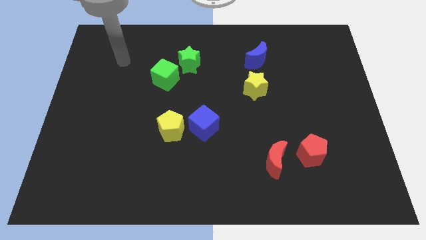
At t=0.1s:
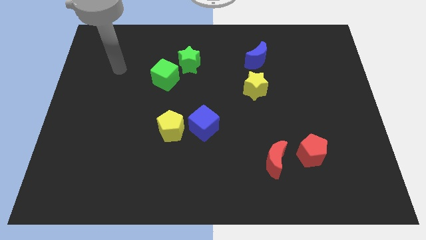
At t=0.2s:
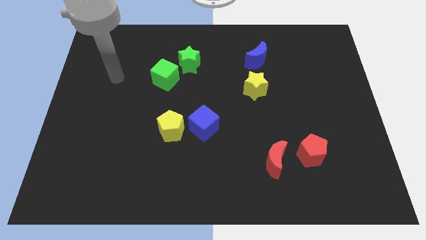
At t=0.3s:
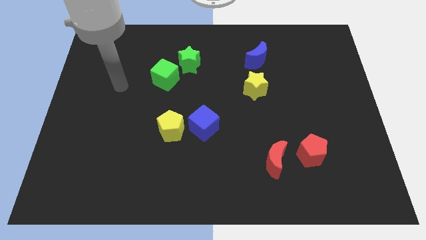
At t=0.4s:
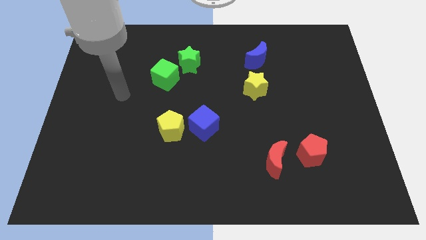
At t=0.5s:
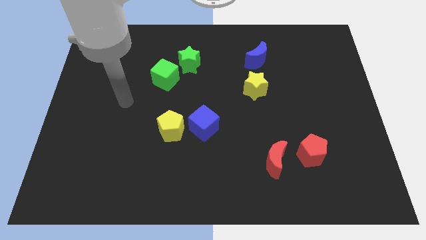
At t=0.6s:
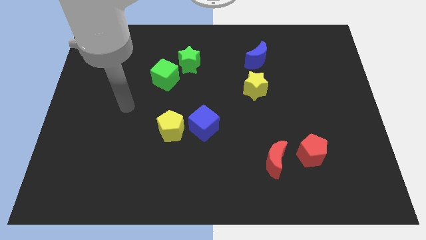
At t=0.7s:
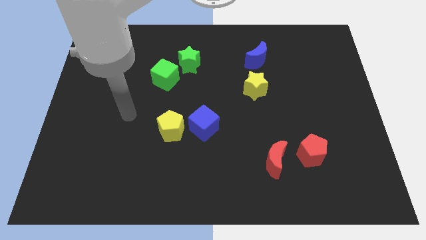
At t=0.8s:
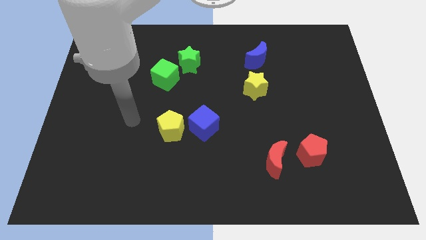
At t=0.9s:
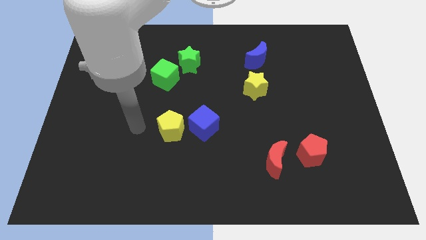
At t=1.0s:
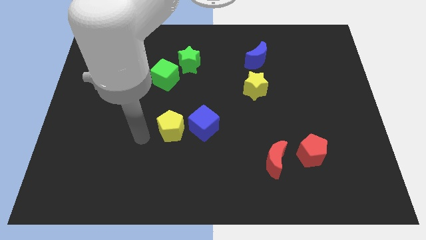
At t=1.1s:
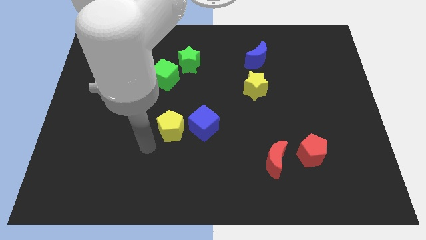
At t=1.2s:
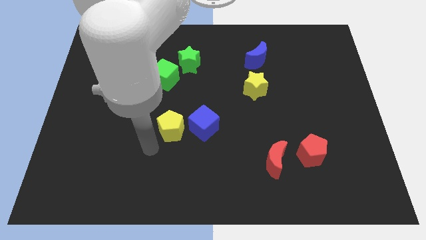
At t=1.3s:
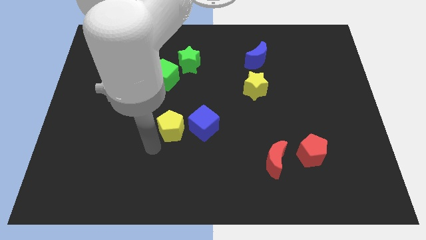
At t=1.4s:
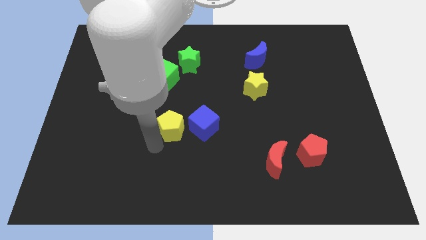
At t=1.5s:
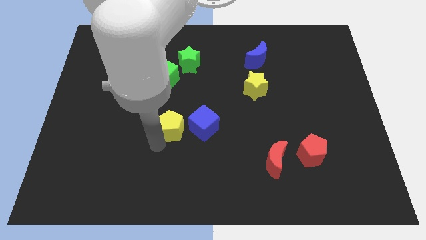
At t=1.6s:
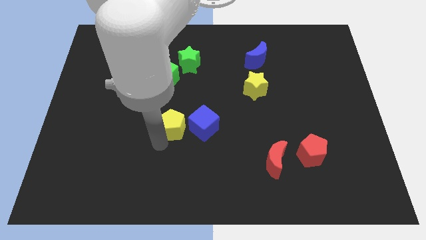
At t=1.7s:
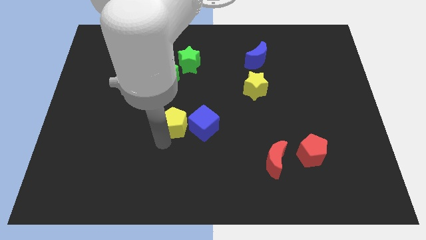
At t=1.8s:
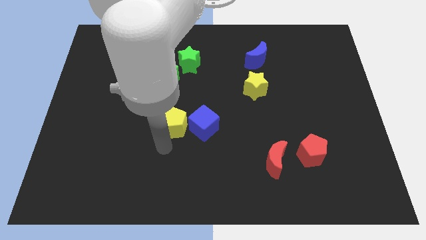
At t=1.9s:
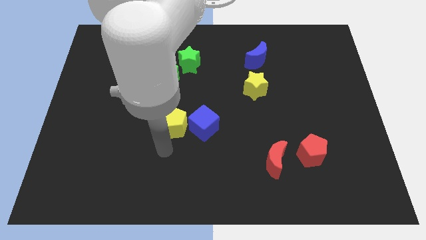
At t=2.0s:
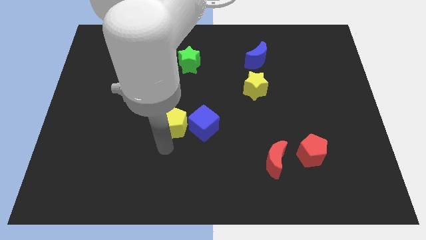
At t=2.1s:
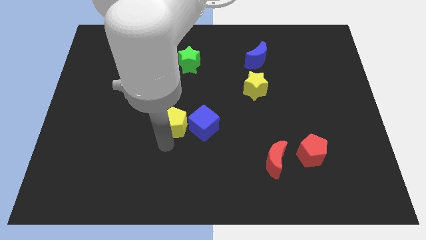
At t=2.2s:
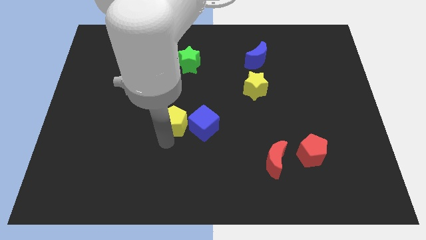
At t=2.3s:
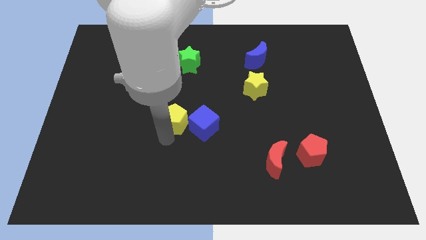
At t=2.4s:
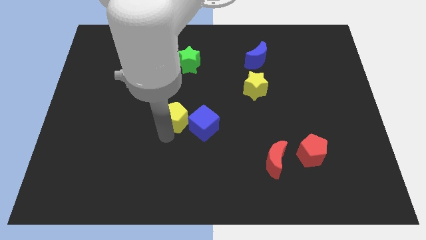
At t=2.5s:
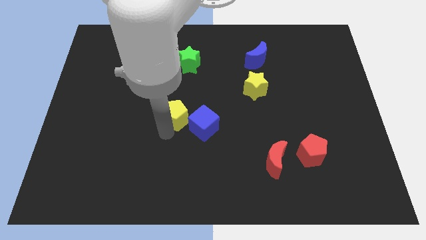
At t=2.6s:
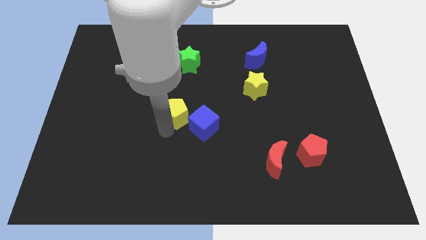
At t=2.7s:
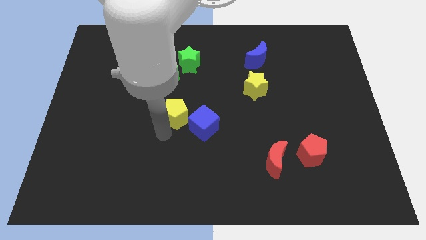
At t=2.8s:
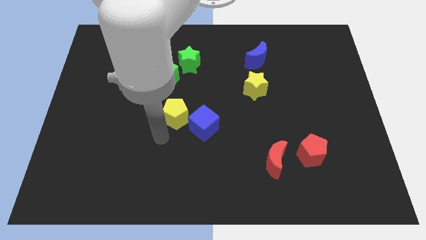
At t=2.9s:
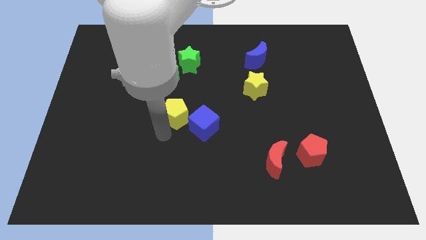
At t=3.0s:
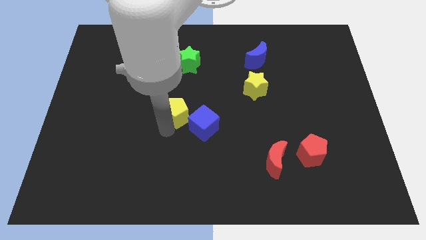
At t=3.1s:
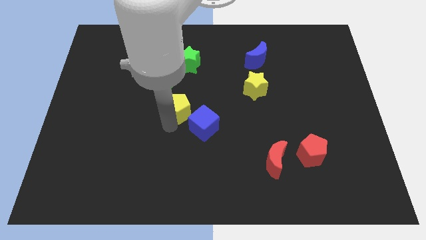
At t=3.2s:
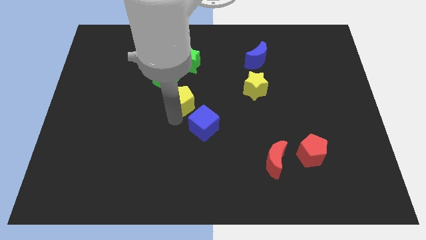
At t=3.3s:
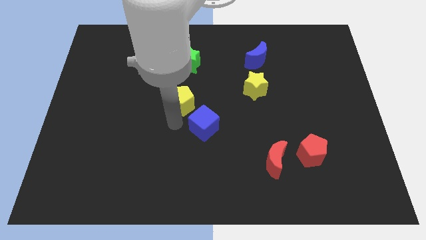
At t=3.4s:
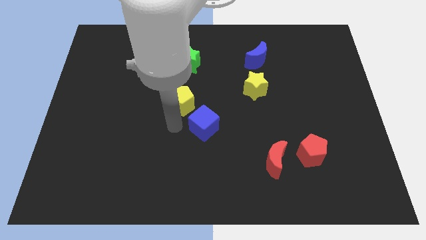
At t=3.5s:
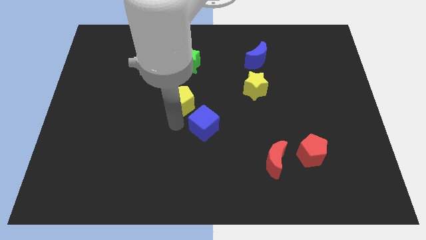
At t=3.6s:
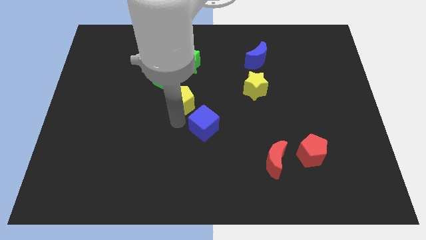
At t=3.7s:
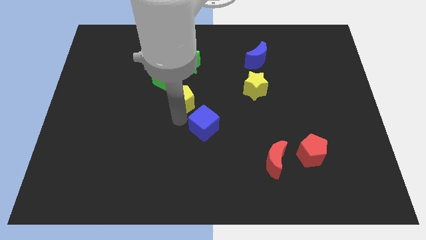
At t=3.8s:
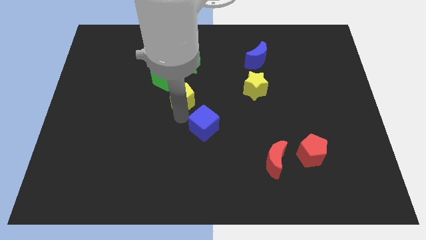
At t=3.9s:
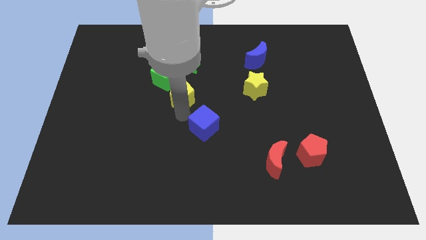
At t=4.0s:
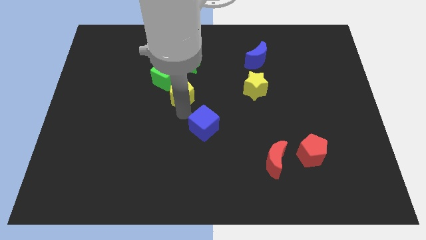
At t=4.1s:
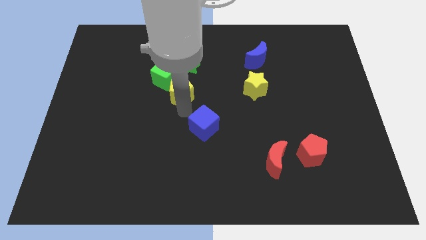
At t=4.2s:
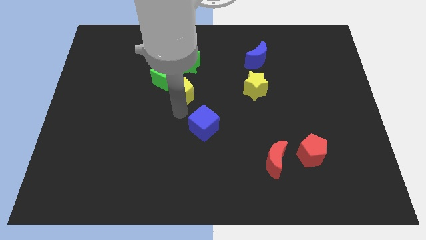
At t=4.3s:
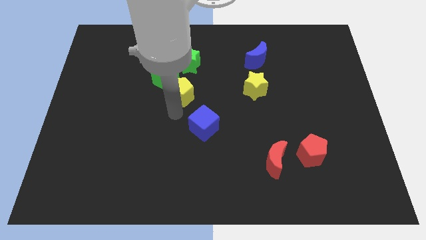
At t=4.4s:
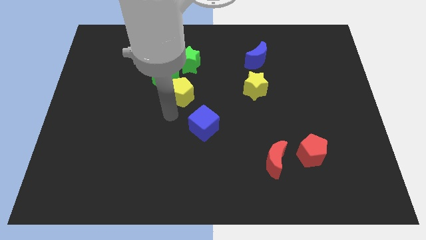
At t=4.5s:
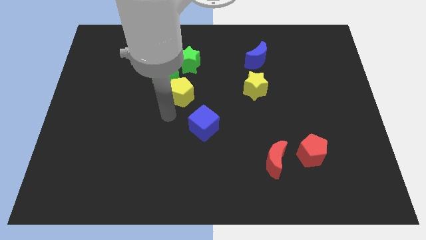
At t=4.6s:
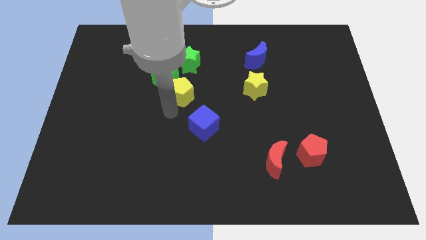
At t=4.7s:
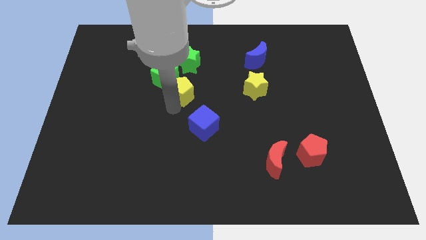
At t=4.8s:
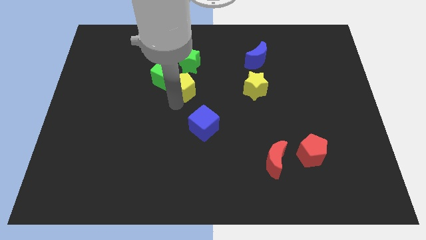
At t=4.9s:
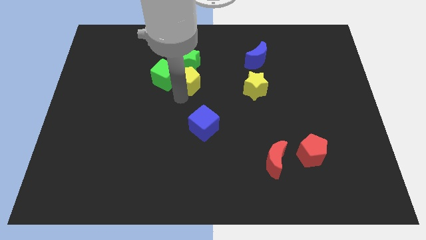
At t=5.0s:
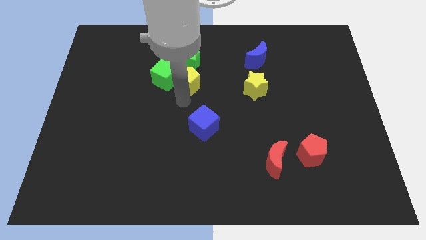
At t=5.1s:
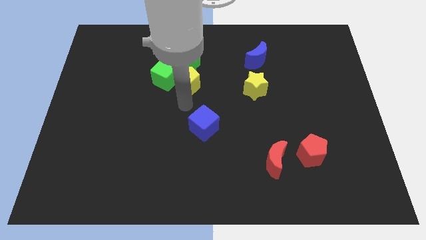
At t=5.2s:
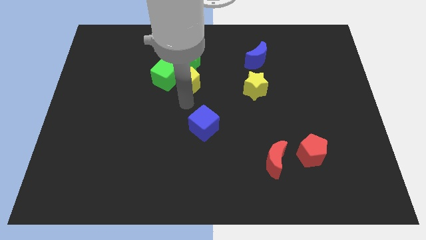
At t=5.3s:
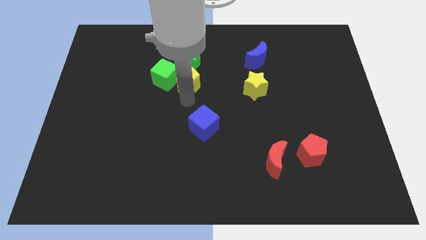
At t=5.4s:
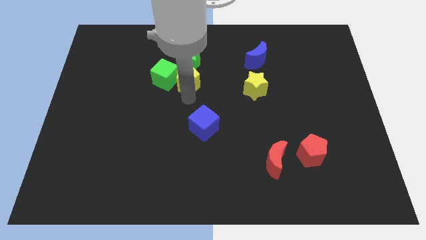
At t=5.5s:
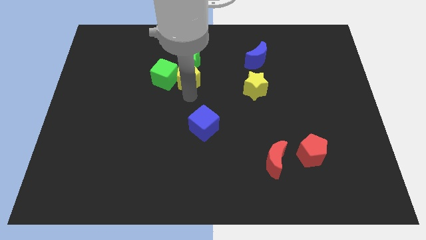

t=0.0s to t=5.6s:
slide the yellow pentagon close to the green star

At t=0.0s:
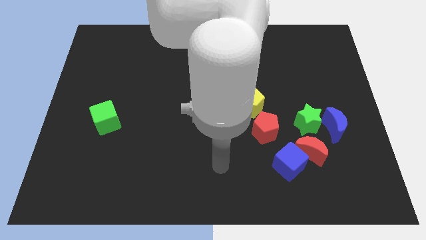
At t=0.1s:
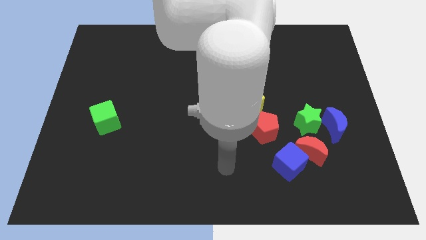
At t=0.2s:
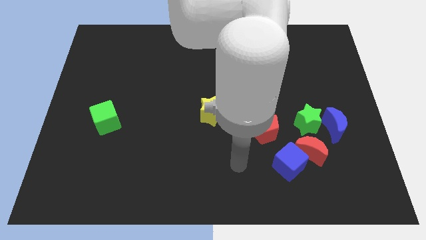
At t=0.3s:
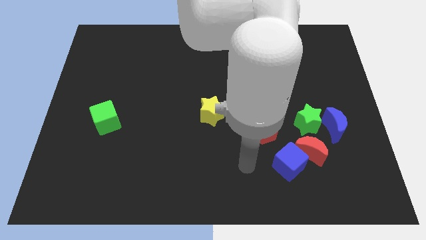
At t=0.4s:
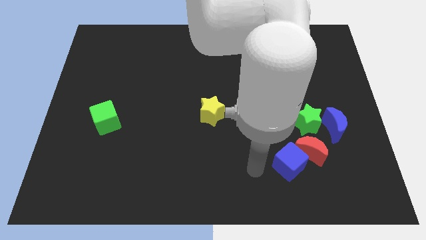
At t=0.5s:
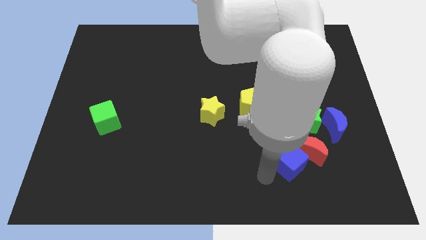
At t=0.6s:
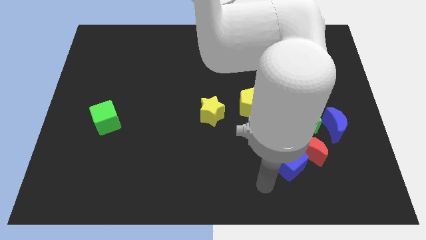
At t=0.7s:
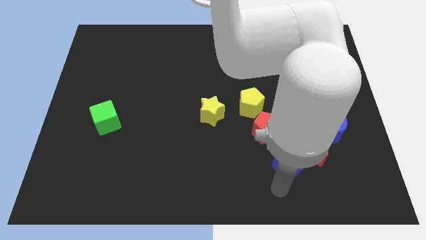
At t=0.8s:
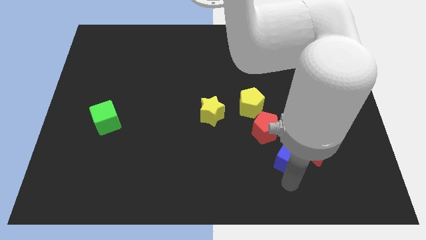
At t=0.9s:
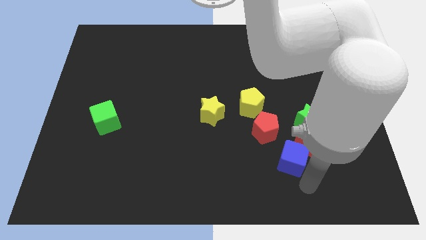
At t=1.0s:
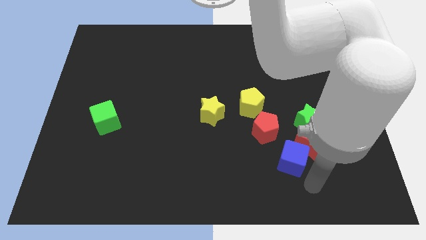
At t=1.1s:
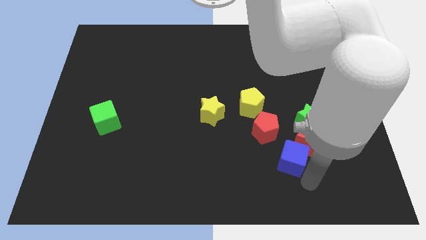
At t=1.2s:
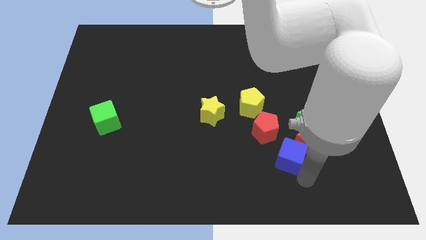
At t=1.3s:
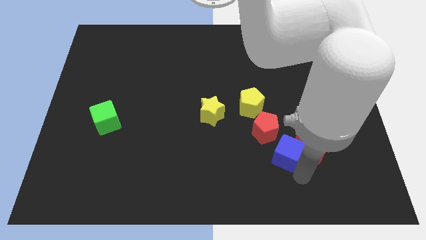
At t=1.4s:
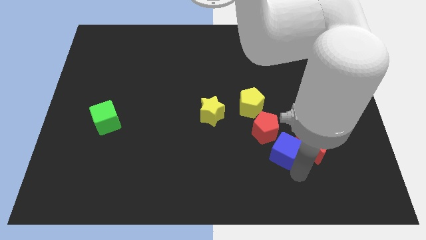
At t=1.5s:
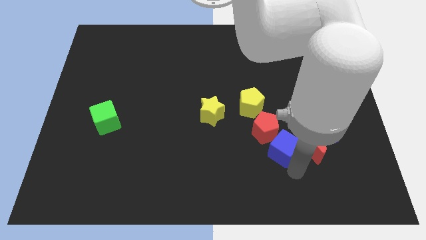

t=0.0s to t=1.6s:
put the blue cube towards the red pentagon
